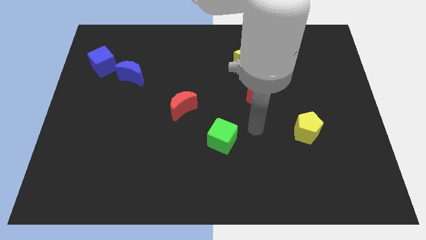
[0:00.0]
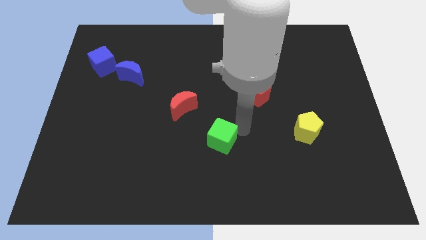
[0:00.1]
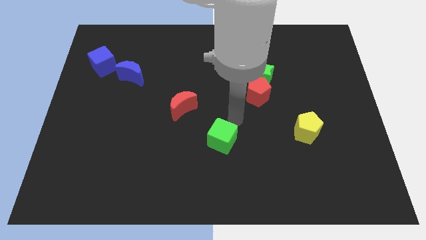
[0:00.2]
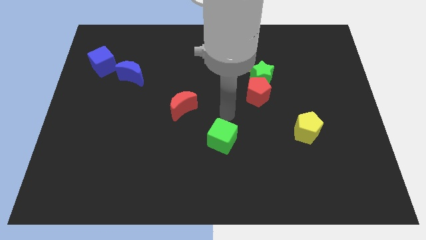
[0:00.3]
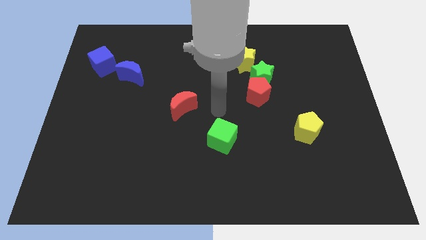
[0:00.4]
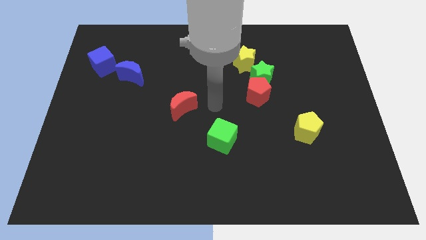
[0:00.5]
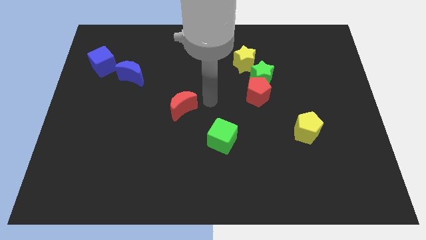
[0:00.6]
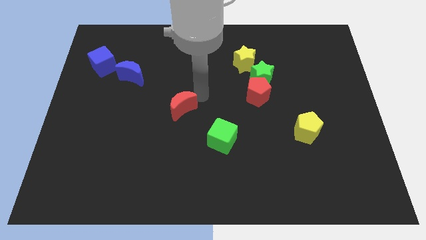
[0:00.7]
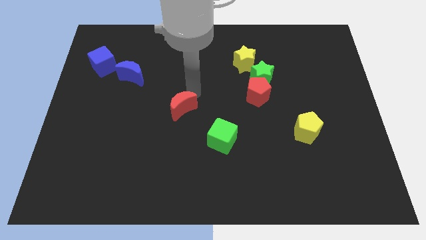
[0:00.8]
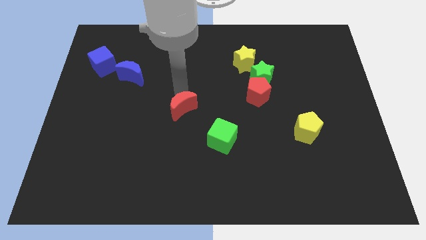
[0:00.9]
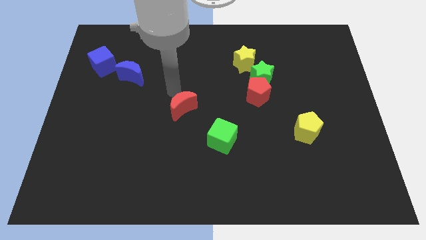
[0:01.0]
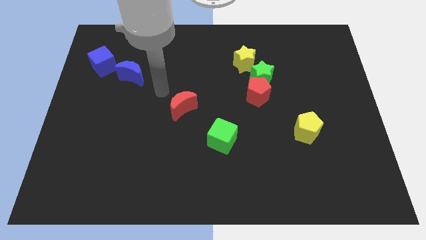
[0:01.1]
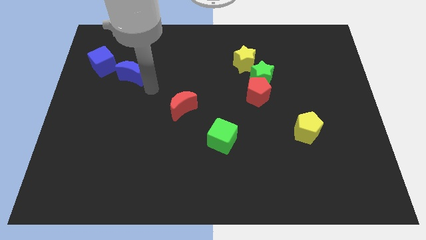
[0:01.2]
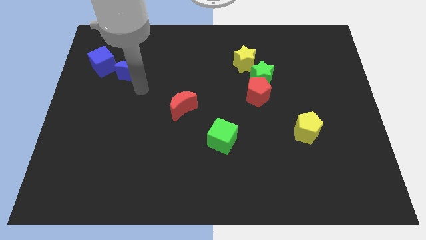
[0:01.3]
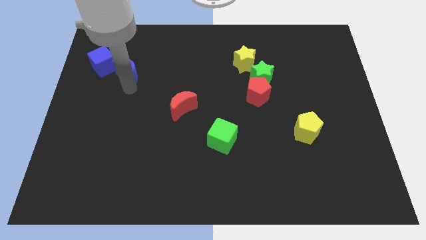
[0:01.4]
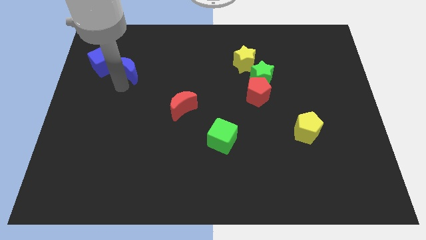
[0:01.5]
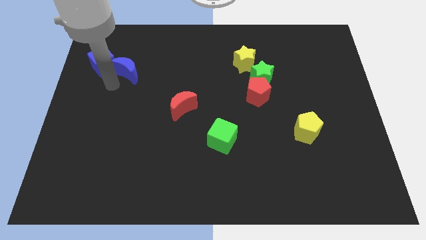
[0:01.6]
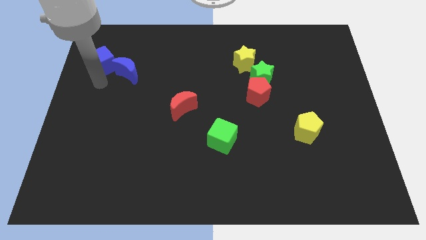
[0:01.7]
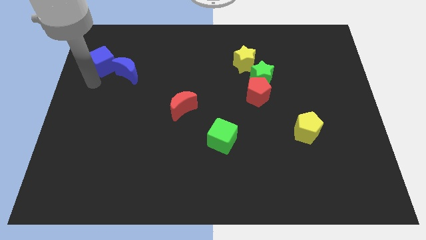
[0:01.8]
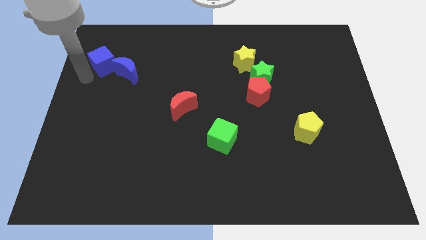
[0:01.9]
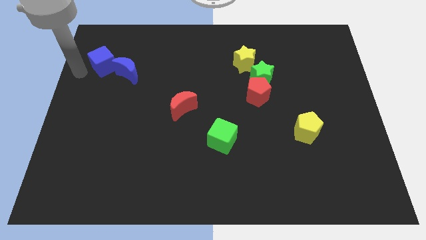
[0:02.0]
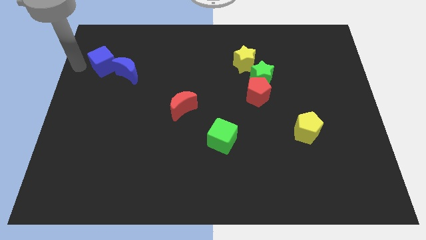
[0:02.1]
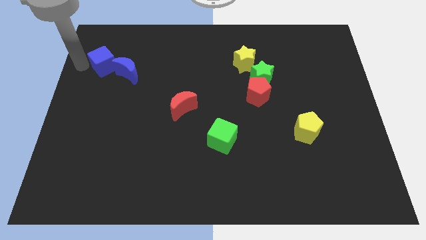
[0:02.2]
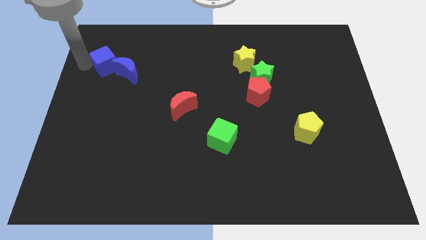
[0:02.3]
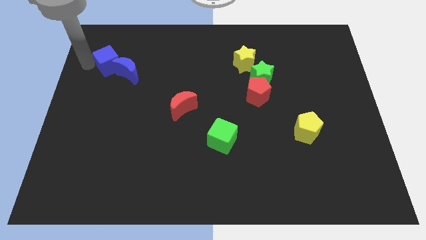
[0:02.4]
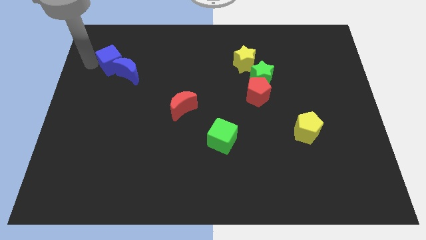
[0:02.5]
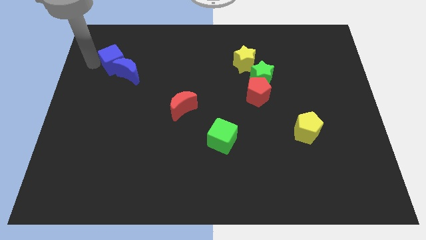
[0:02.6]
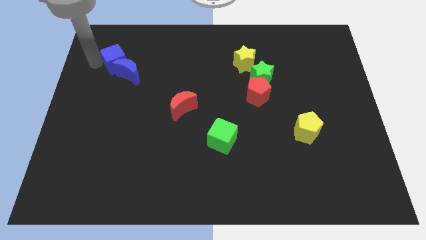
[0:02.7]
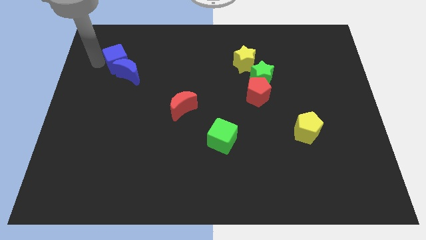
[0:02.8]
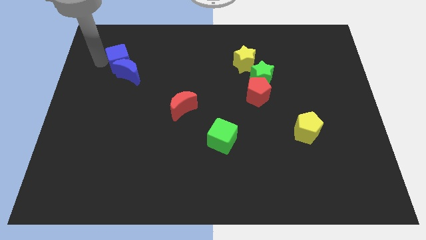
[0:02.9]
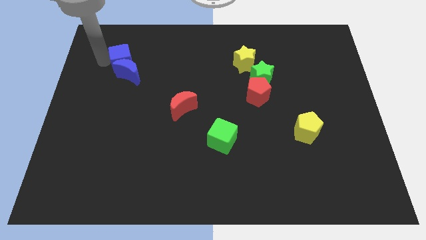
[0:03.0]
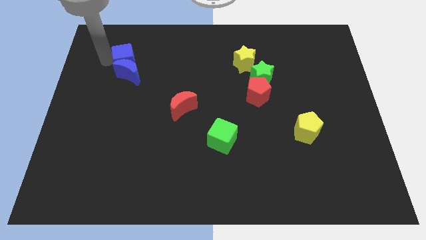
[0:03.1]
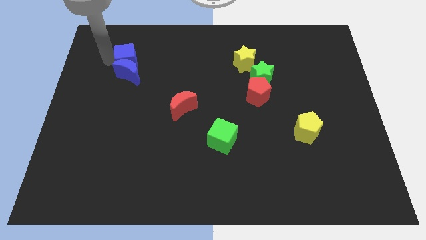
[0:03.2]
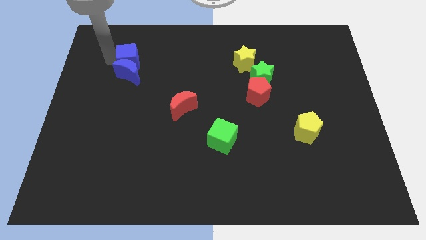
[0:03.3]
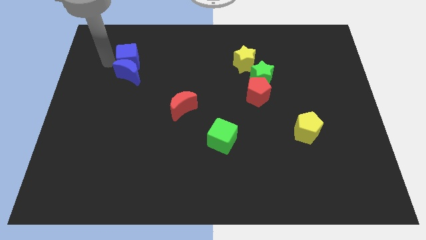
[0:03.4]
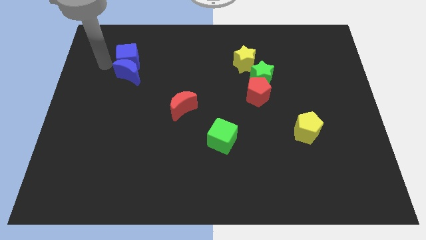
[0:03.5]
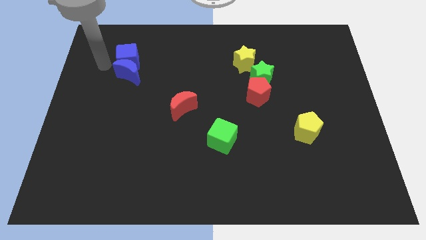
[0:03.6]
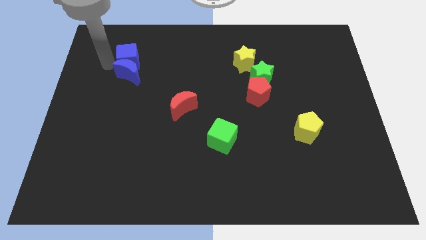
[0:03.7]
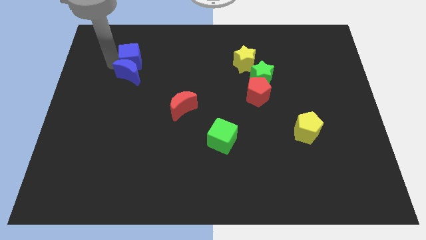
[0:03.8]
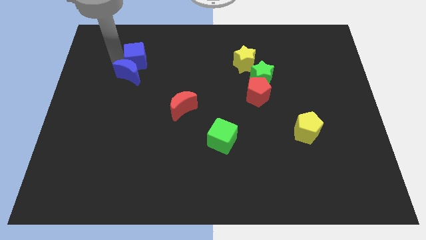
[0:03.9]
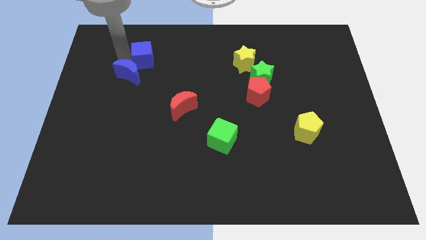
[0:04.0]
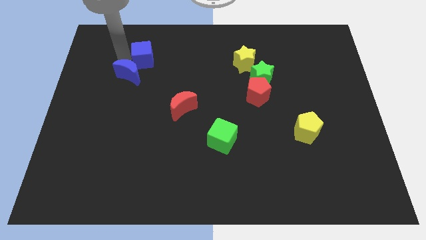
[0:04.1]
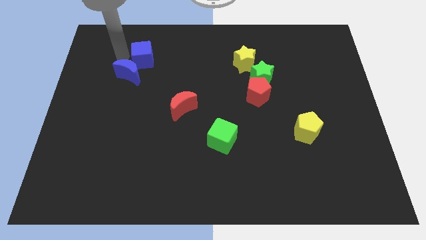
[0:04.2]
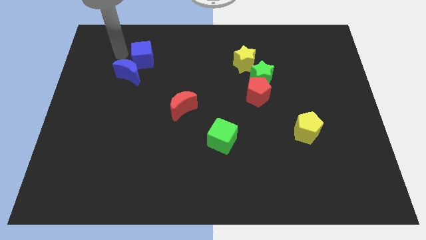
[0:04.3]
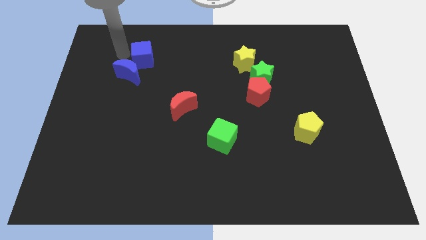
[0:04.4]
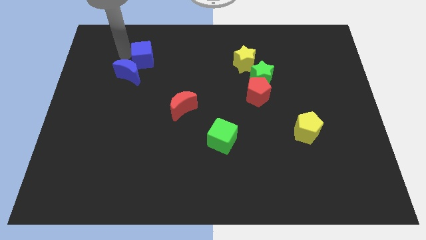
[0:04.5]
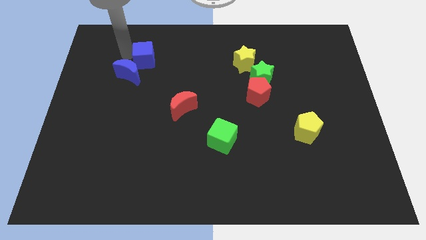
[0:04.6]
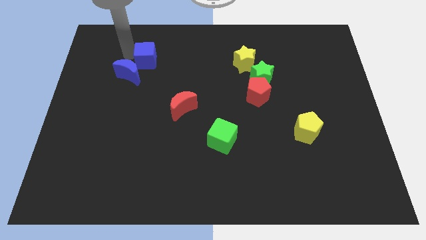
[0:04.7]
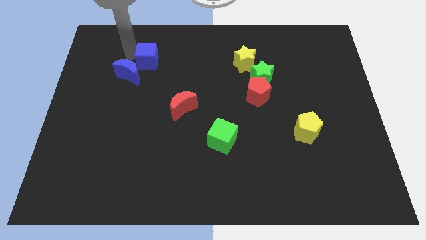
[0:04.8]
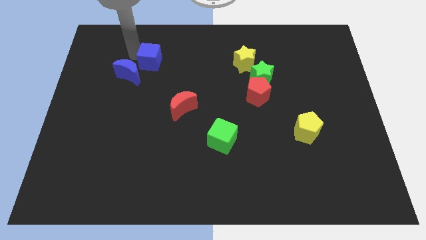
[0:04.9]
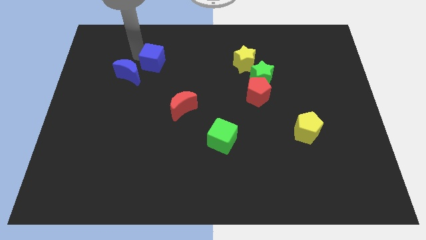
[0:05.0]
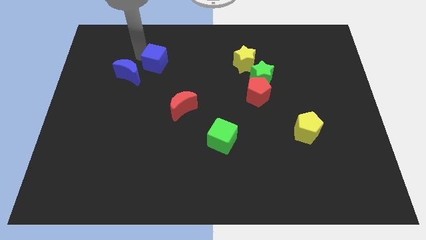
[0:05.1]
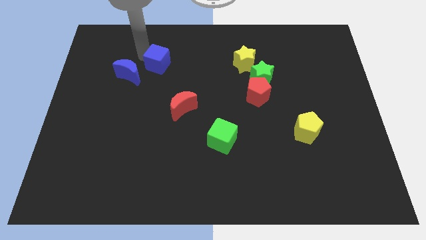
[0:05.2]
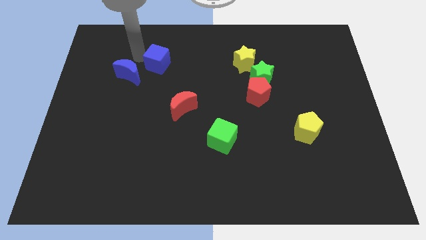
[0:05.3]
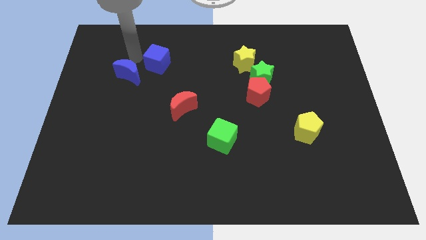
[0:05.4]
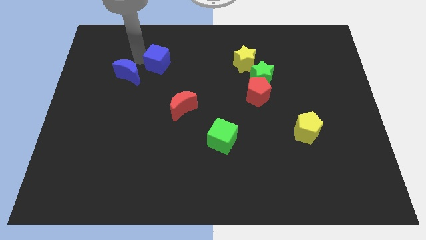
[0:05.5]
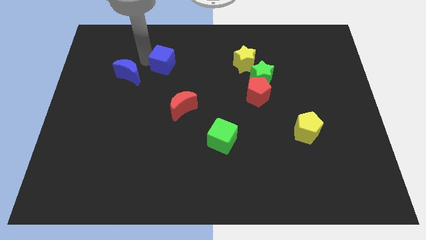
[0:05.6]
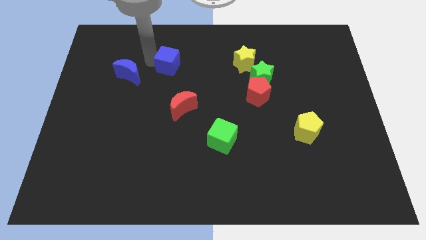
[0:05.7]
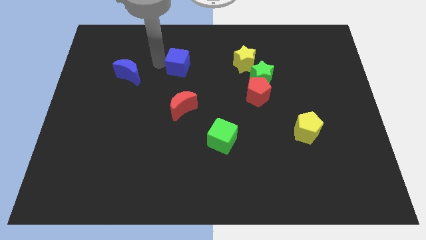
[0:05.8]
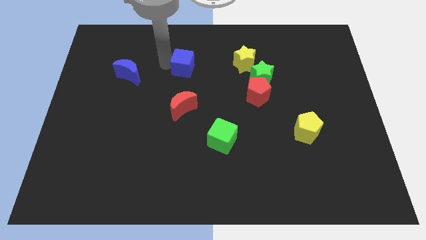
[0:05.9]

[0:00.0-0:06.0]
slide the blue cube right

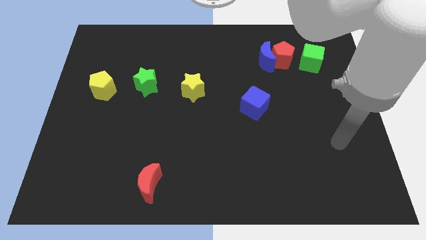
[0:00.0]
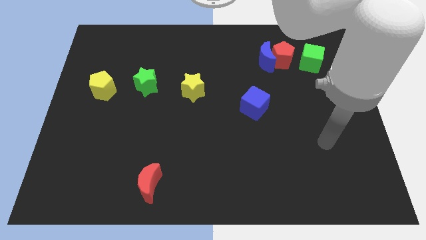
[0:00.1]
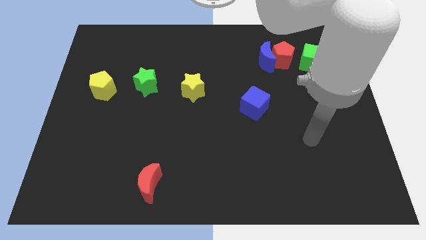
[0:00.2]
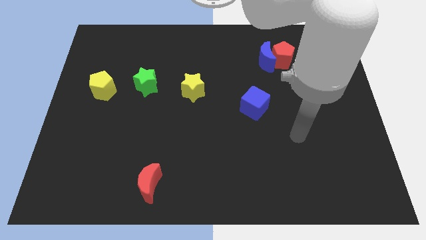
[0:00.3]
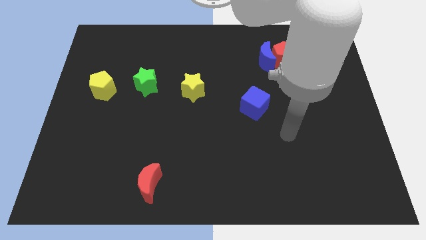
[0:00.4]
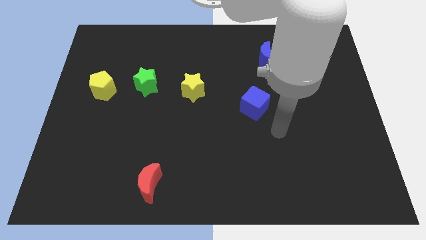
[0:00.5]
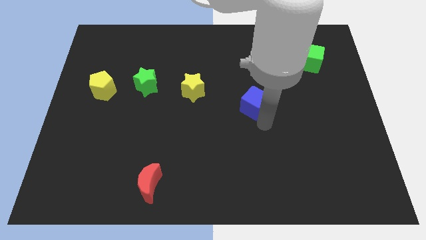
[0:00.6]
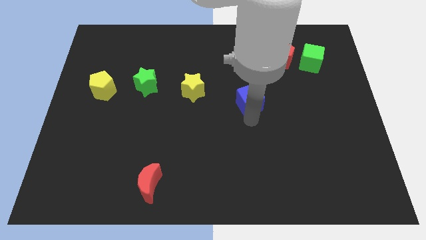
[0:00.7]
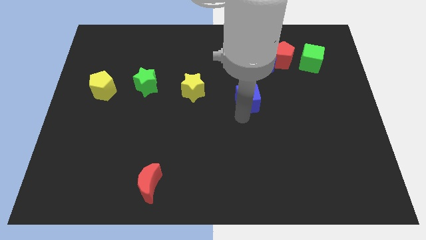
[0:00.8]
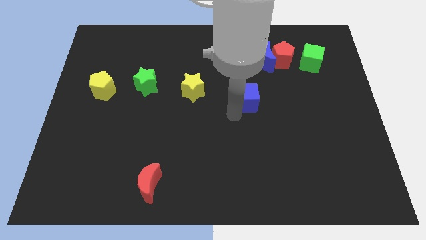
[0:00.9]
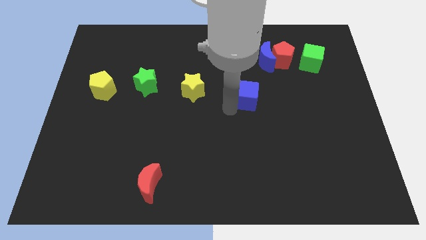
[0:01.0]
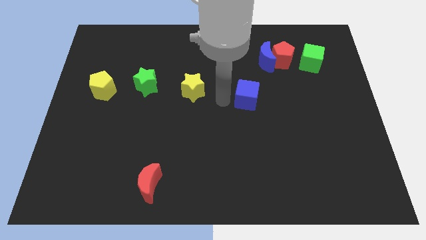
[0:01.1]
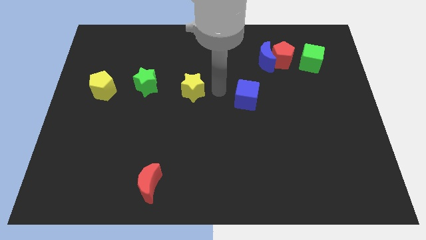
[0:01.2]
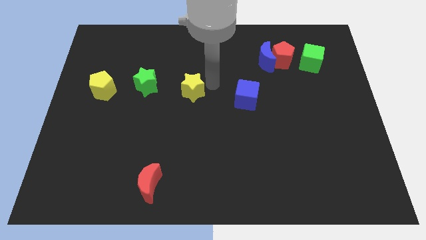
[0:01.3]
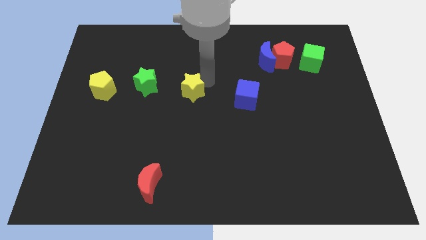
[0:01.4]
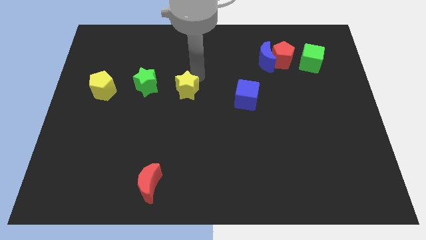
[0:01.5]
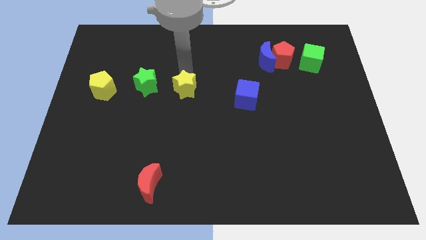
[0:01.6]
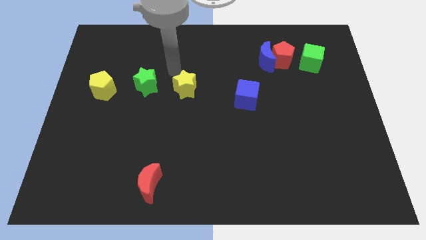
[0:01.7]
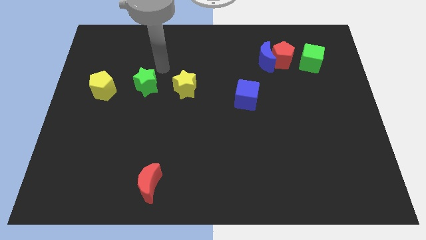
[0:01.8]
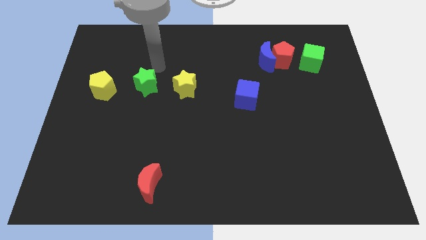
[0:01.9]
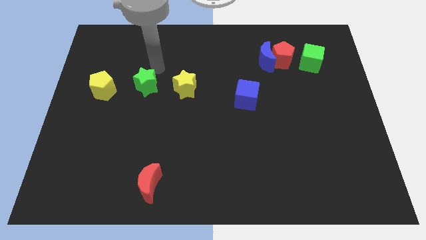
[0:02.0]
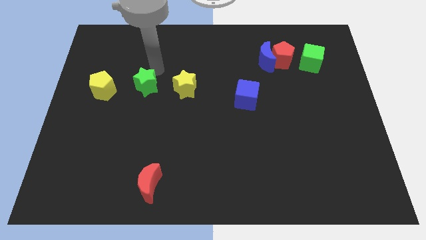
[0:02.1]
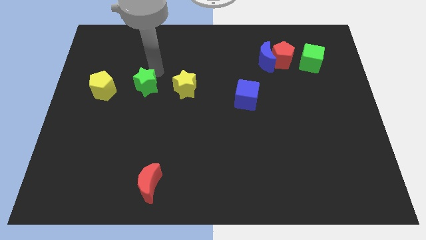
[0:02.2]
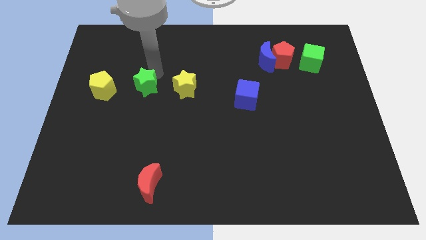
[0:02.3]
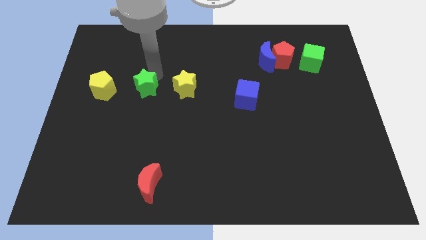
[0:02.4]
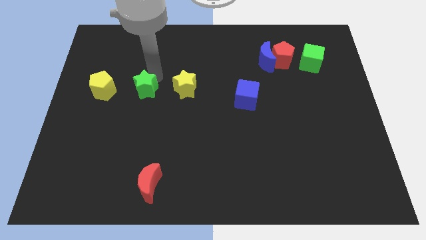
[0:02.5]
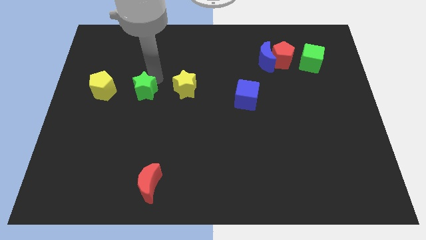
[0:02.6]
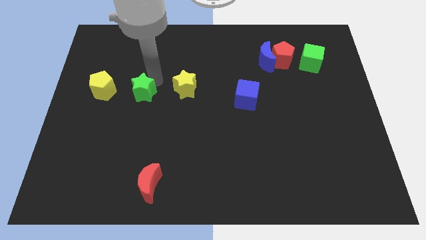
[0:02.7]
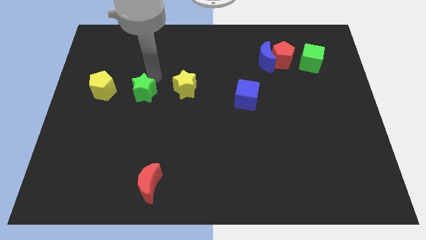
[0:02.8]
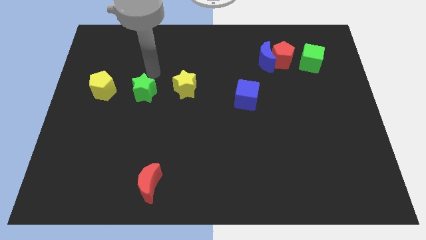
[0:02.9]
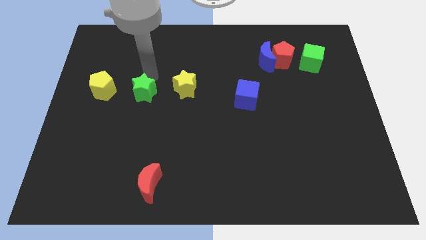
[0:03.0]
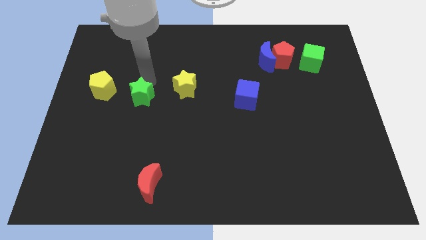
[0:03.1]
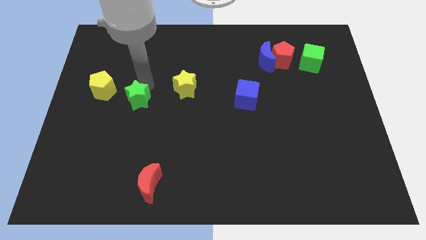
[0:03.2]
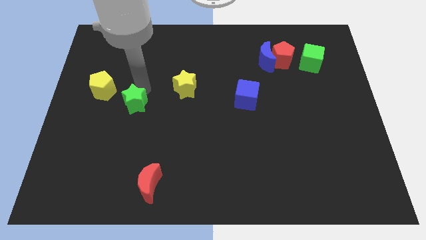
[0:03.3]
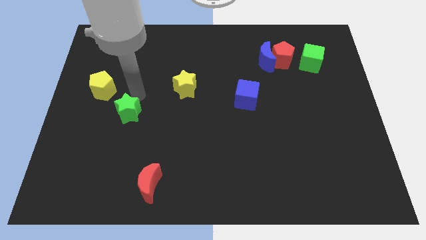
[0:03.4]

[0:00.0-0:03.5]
push the green star downwards a little
